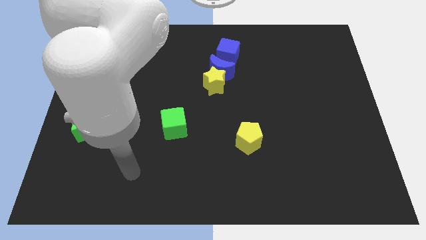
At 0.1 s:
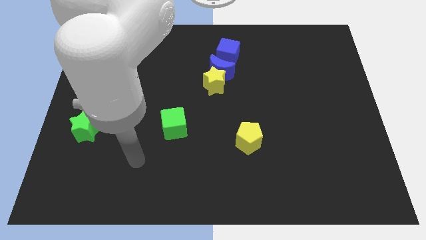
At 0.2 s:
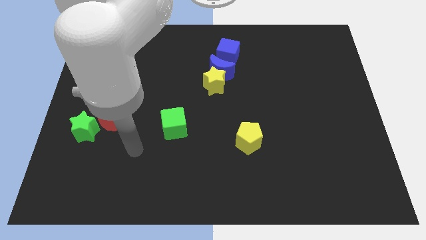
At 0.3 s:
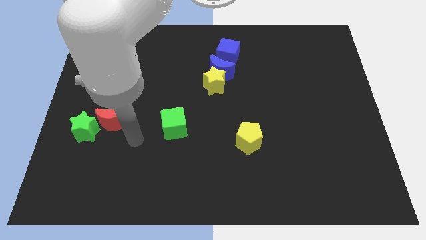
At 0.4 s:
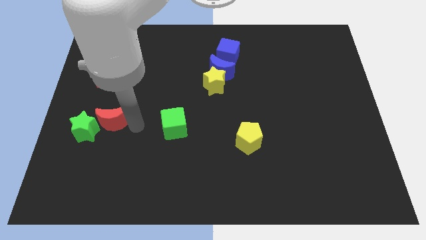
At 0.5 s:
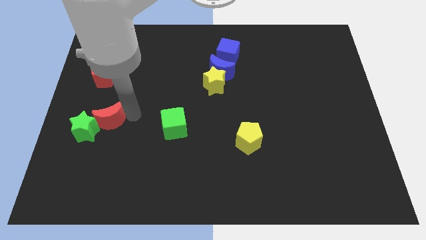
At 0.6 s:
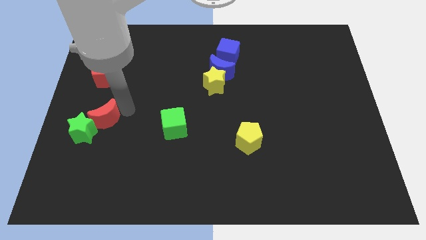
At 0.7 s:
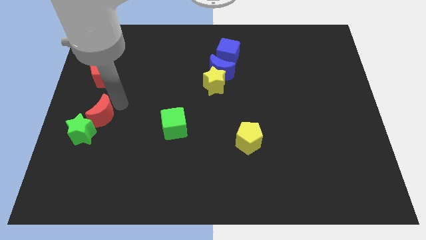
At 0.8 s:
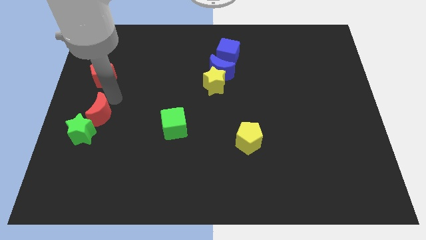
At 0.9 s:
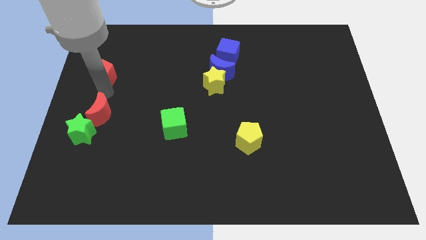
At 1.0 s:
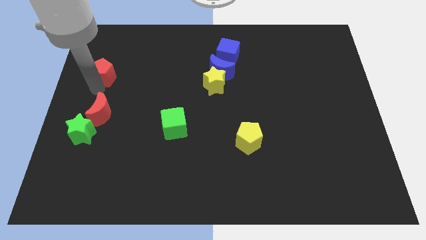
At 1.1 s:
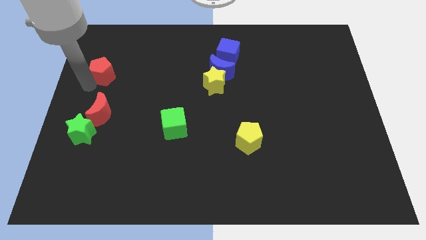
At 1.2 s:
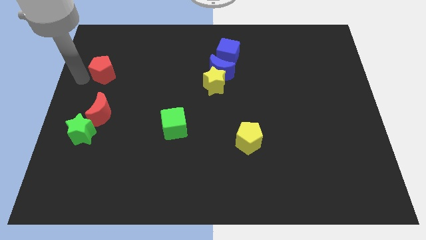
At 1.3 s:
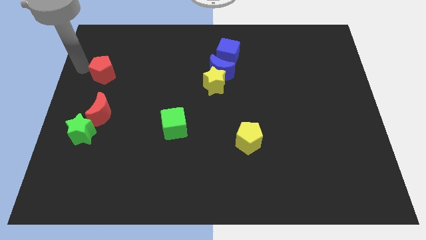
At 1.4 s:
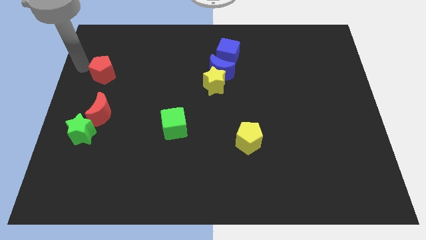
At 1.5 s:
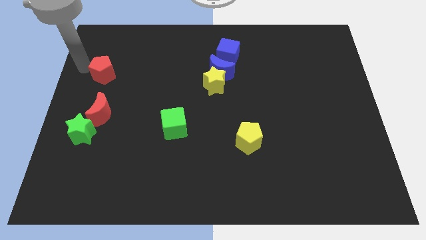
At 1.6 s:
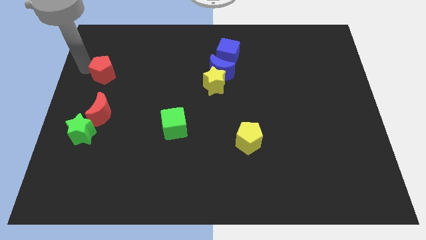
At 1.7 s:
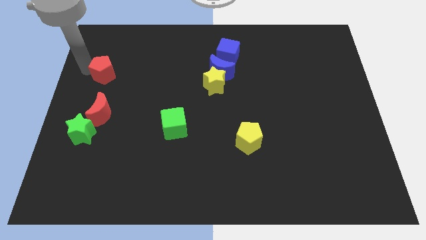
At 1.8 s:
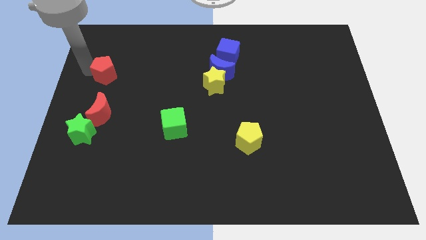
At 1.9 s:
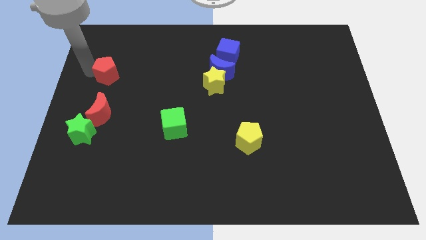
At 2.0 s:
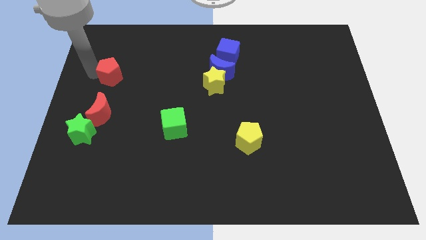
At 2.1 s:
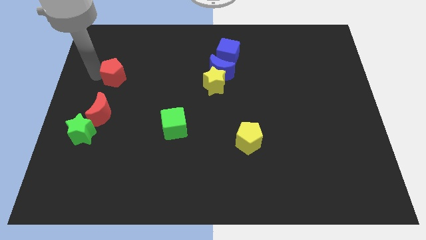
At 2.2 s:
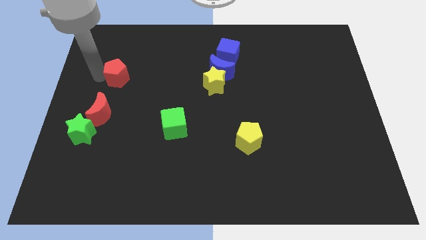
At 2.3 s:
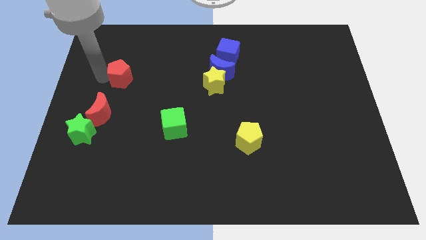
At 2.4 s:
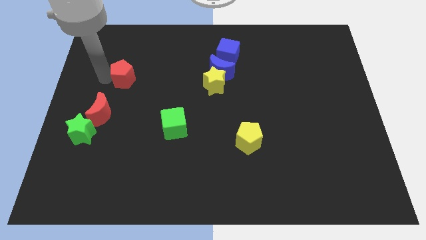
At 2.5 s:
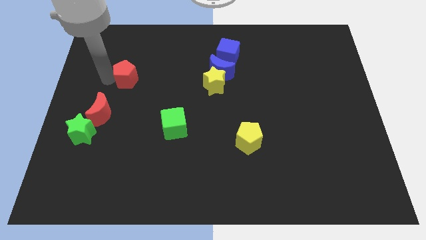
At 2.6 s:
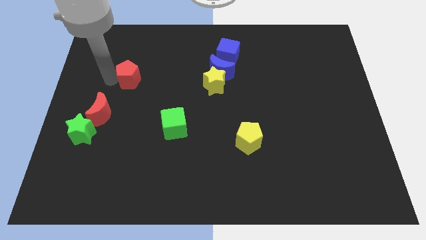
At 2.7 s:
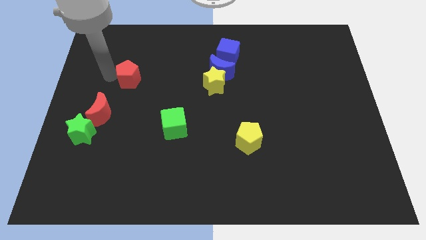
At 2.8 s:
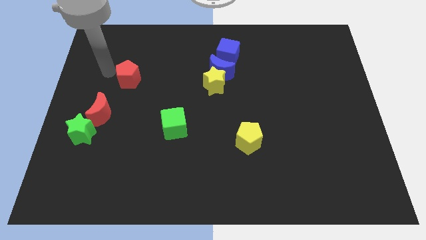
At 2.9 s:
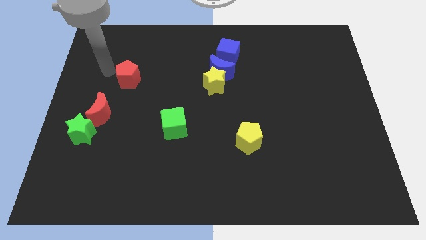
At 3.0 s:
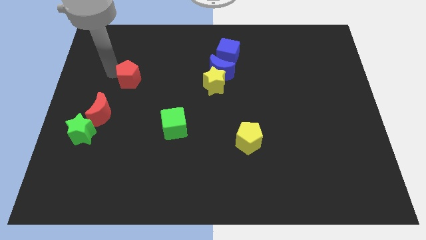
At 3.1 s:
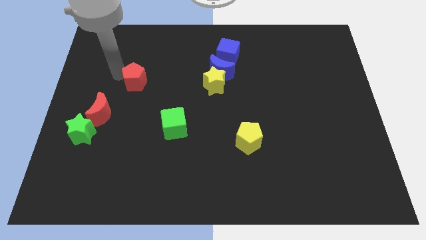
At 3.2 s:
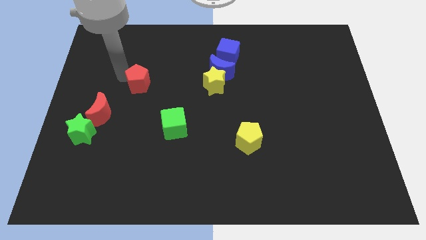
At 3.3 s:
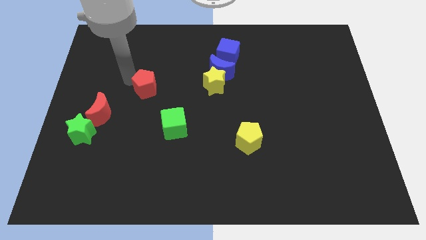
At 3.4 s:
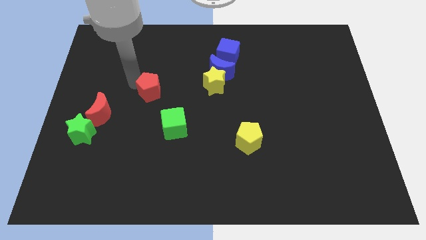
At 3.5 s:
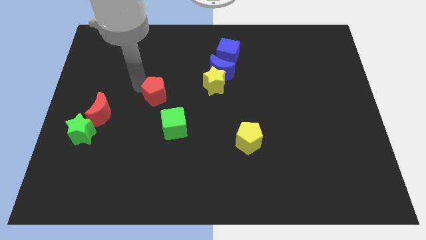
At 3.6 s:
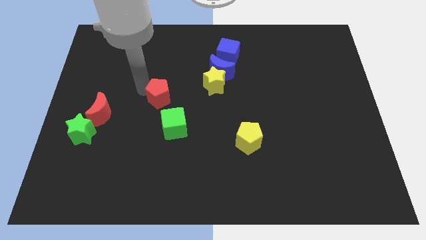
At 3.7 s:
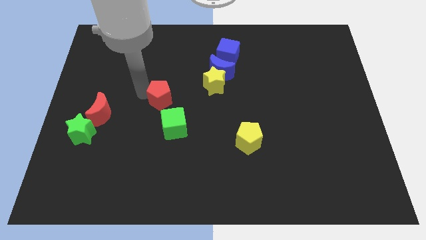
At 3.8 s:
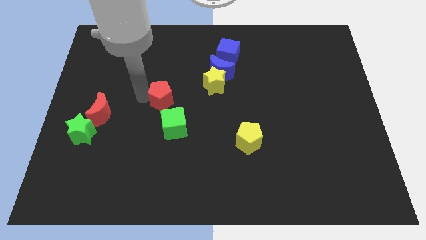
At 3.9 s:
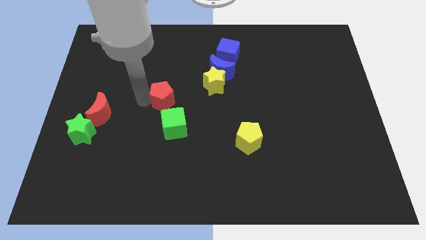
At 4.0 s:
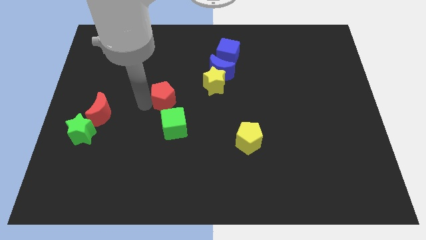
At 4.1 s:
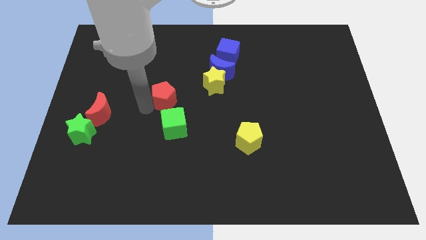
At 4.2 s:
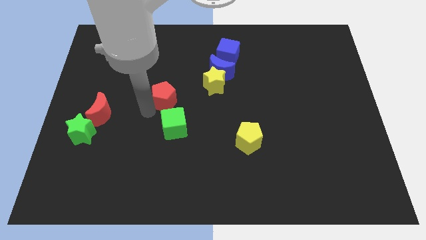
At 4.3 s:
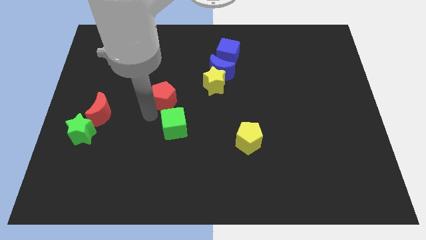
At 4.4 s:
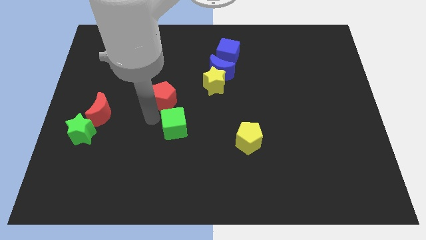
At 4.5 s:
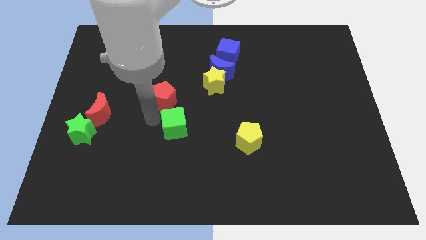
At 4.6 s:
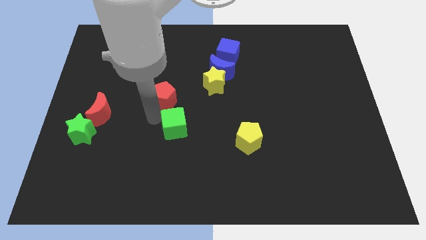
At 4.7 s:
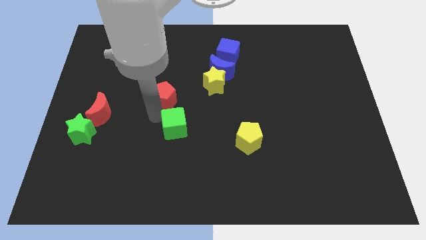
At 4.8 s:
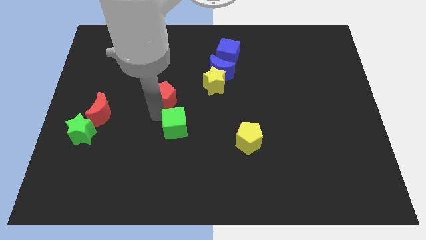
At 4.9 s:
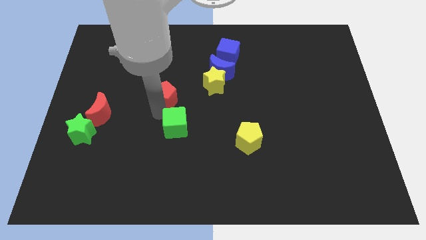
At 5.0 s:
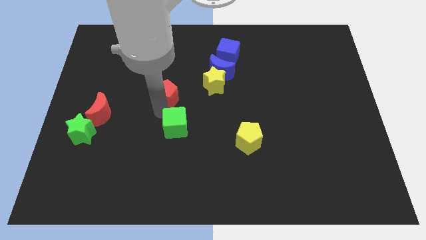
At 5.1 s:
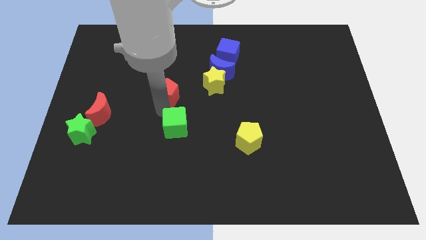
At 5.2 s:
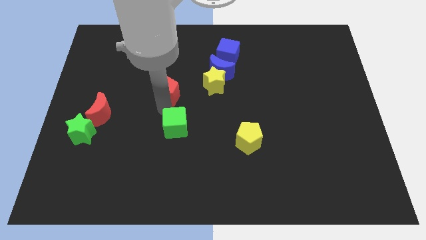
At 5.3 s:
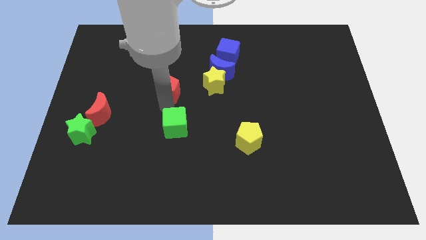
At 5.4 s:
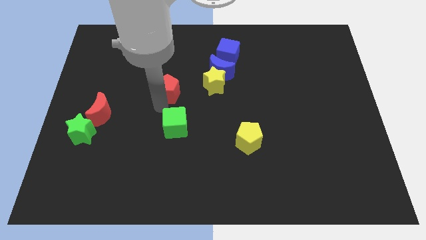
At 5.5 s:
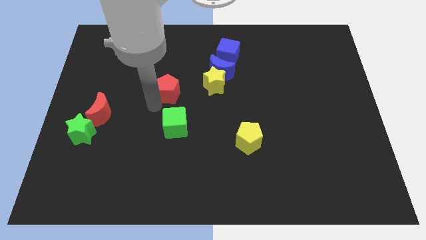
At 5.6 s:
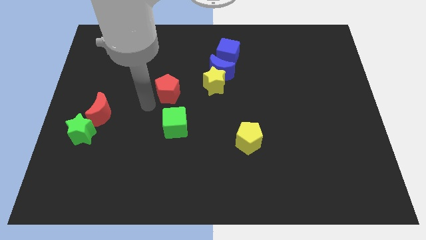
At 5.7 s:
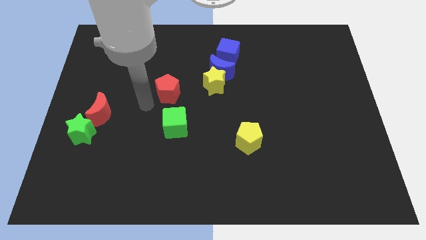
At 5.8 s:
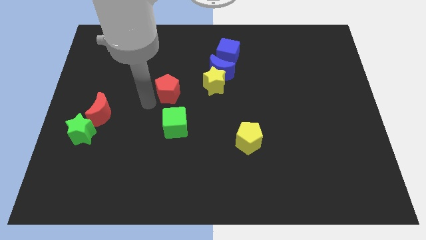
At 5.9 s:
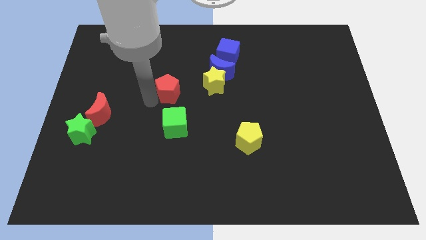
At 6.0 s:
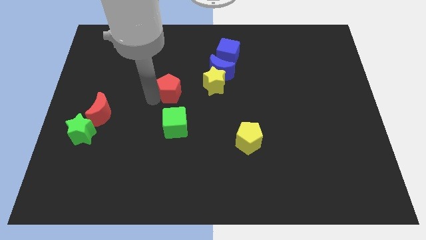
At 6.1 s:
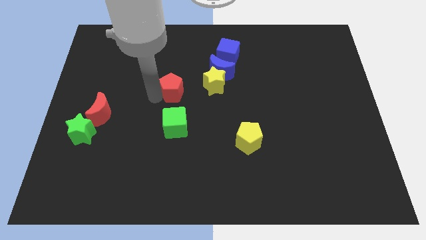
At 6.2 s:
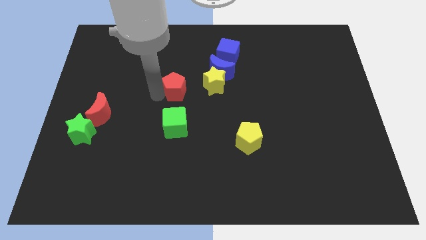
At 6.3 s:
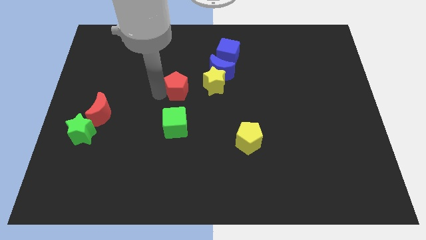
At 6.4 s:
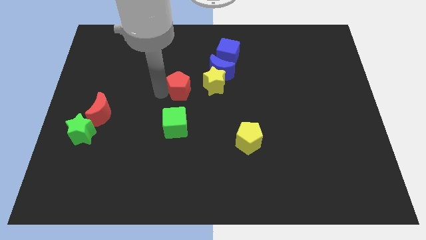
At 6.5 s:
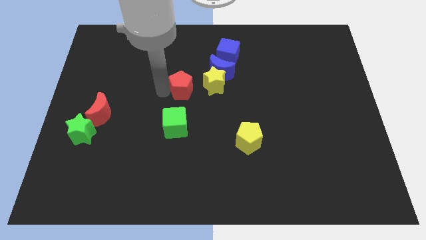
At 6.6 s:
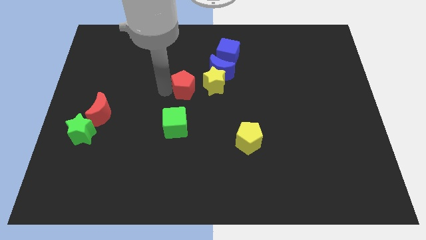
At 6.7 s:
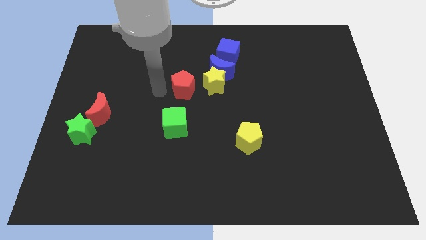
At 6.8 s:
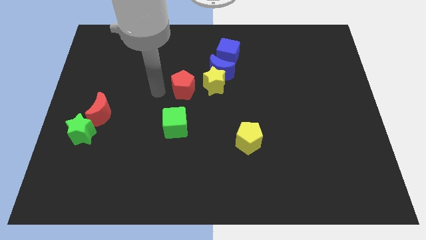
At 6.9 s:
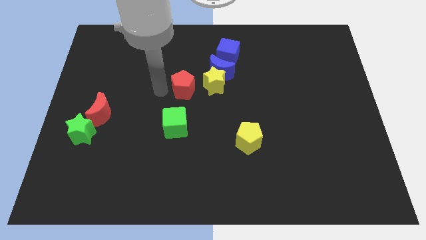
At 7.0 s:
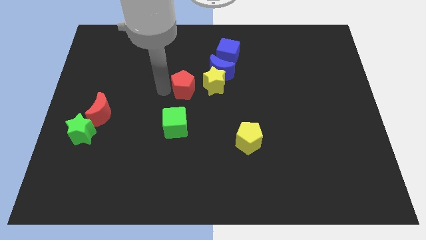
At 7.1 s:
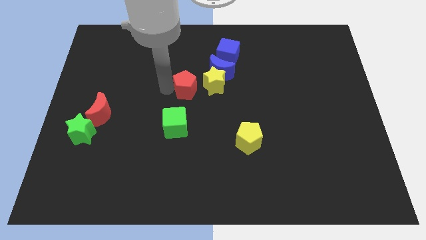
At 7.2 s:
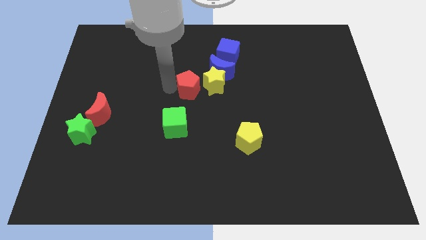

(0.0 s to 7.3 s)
push the red pentagon to the yellow star
